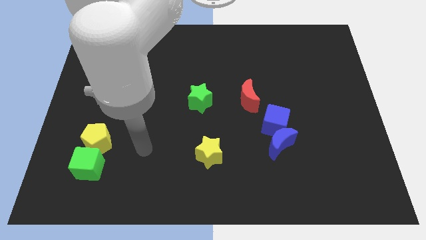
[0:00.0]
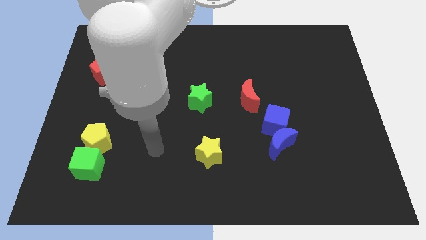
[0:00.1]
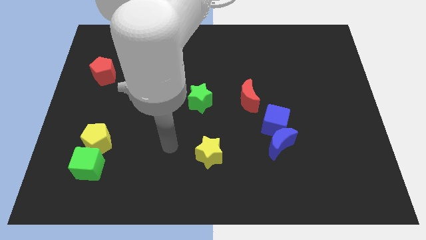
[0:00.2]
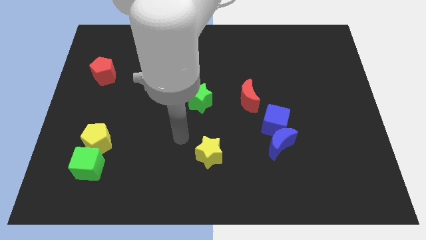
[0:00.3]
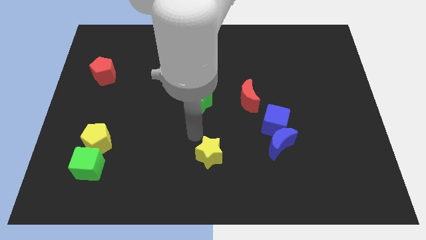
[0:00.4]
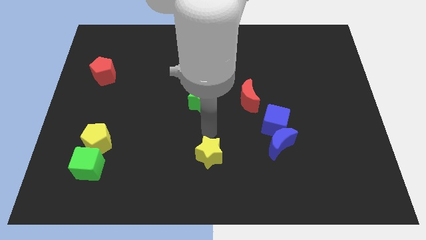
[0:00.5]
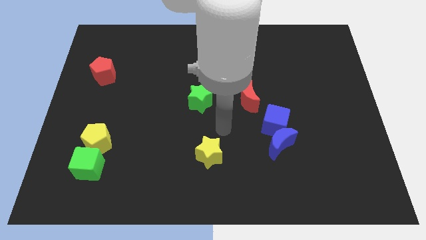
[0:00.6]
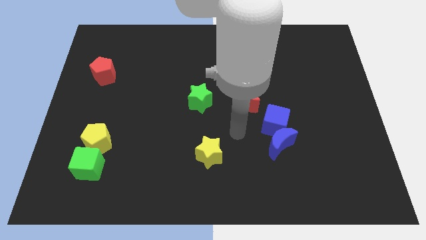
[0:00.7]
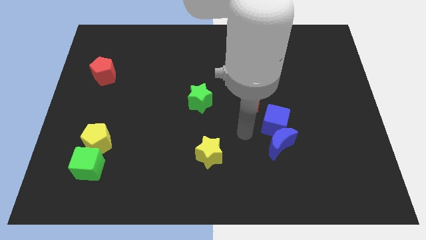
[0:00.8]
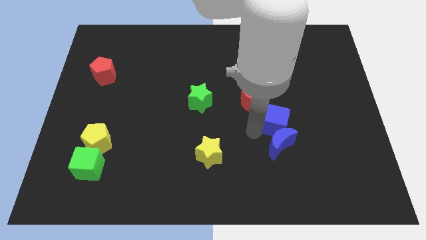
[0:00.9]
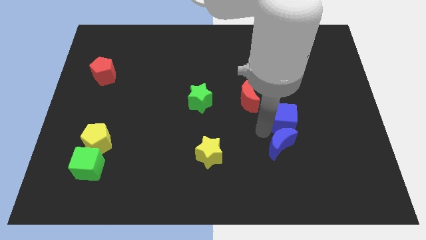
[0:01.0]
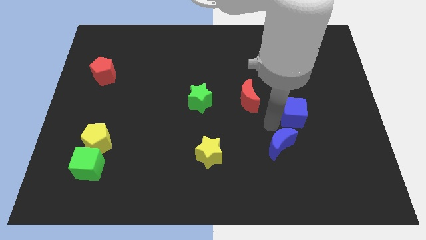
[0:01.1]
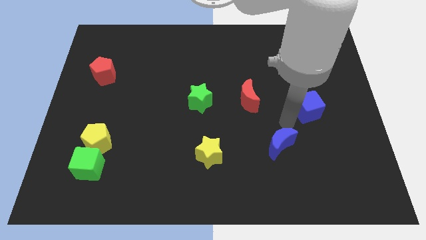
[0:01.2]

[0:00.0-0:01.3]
separate the blue moon from the blue cube

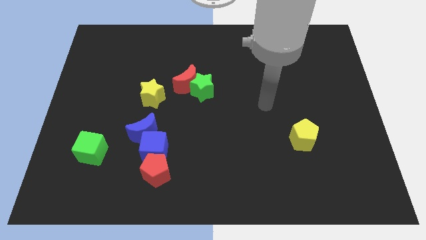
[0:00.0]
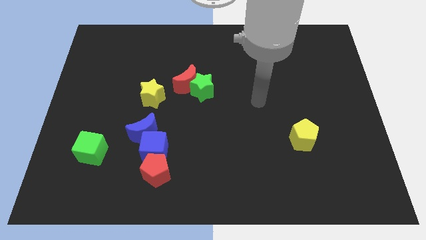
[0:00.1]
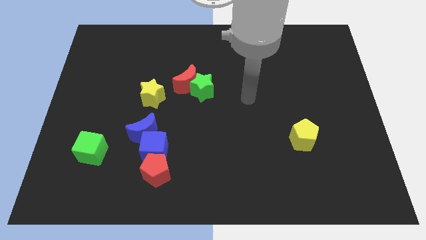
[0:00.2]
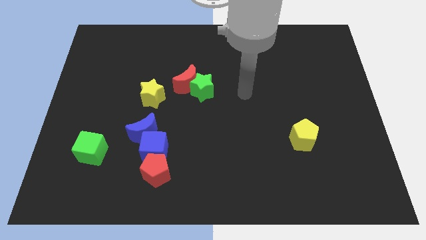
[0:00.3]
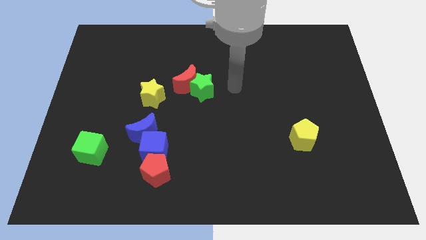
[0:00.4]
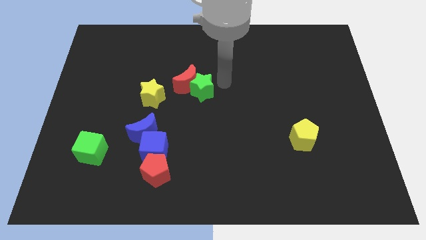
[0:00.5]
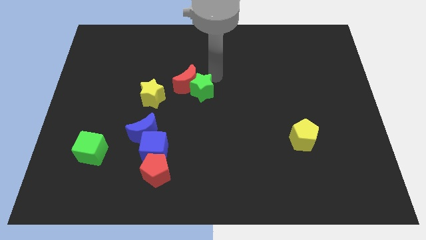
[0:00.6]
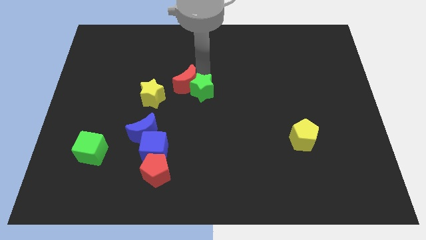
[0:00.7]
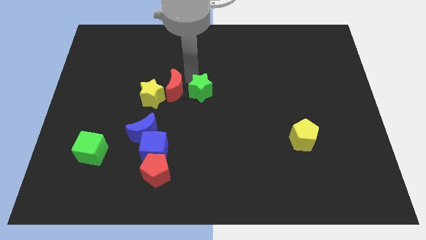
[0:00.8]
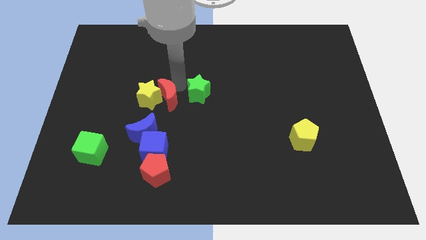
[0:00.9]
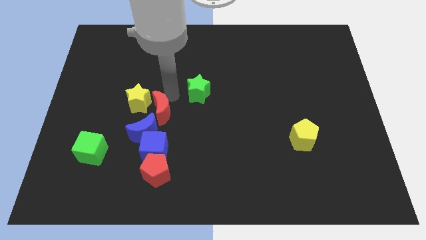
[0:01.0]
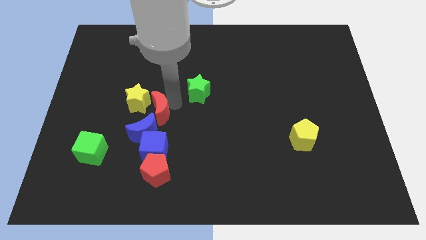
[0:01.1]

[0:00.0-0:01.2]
move the green star away from the red moon

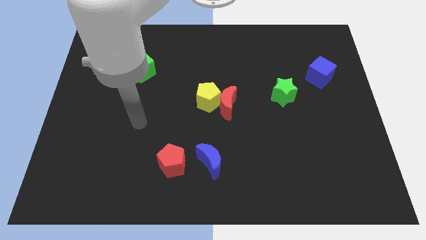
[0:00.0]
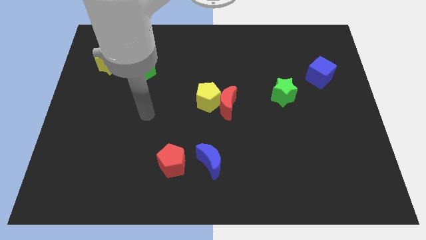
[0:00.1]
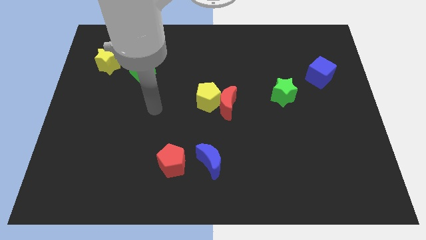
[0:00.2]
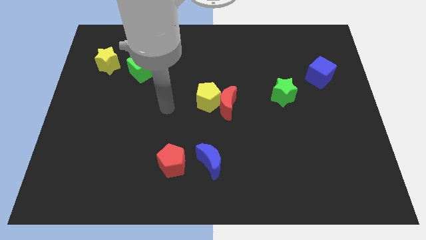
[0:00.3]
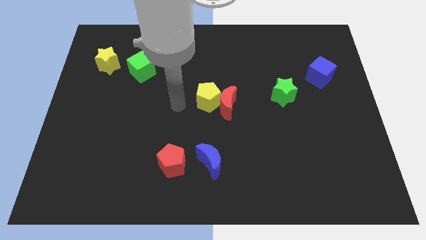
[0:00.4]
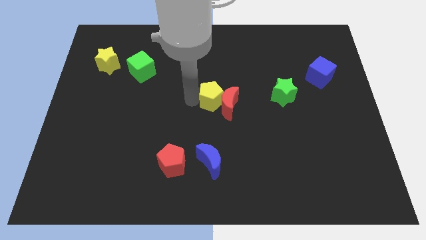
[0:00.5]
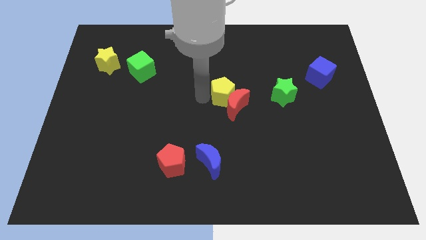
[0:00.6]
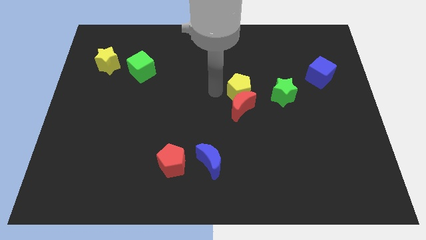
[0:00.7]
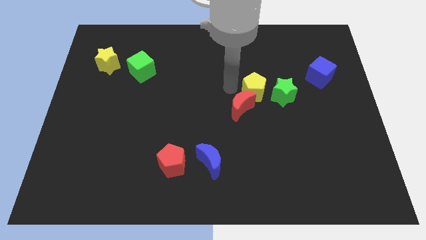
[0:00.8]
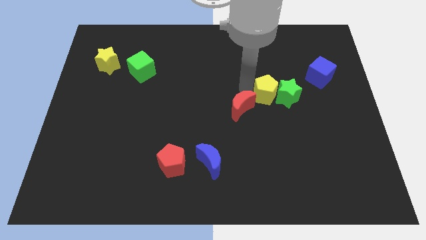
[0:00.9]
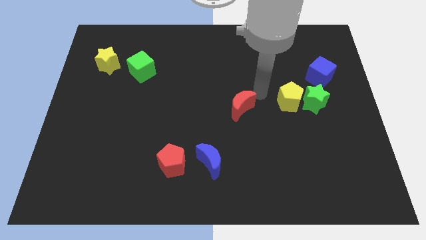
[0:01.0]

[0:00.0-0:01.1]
move the red moon away from the yellow pentagon

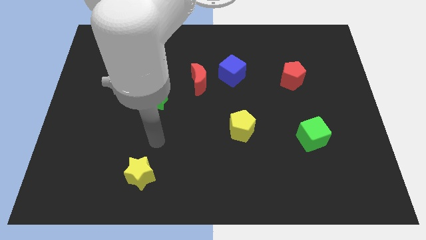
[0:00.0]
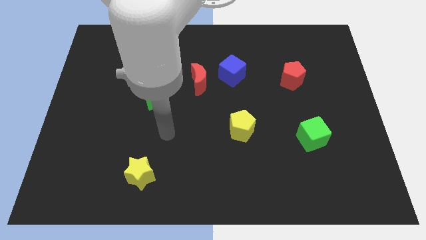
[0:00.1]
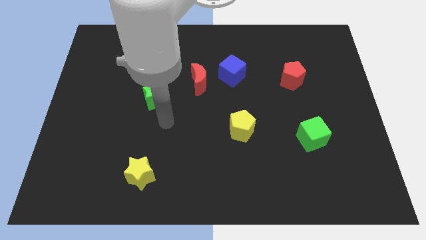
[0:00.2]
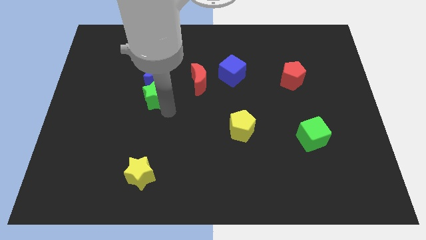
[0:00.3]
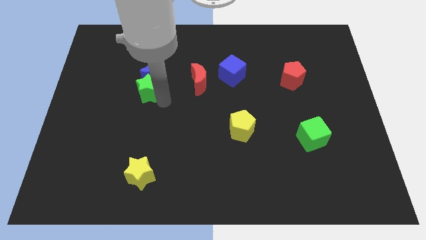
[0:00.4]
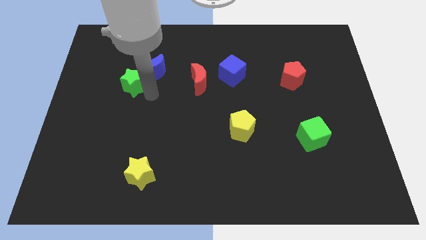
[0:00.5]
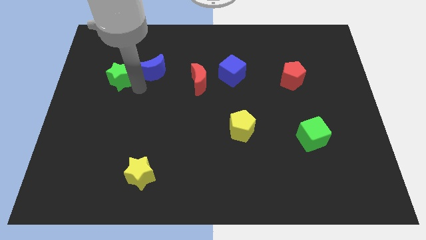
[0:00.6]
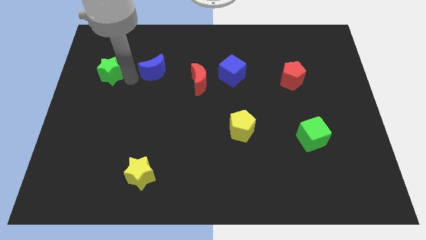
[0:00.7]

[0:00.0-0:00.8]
move the blue moon away from the green star

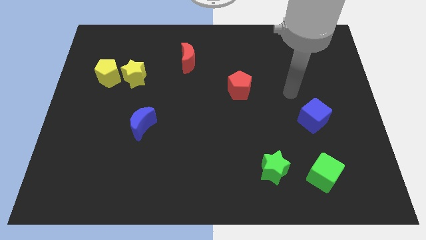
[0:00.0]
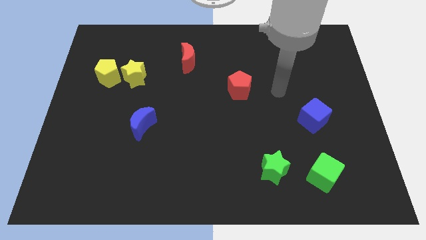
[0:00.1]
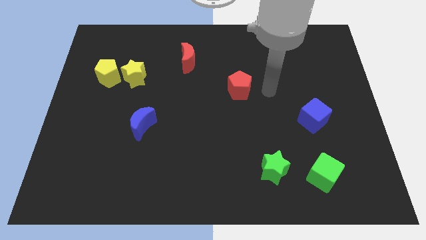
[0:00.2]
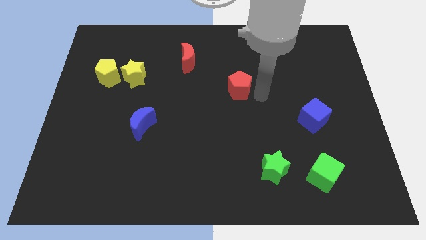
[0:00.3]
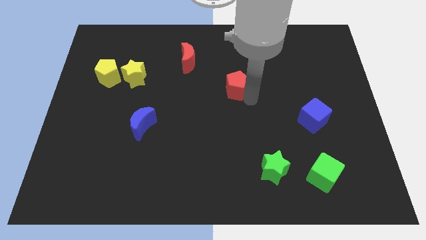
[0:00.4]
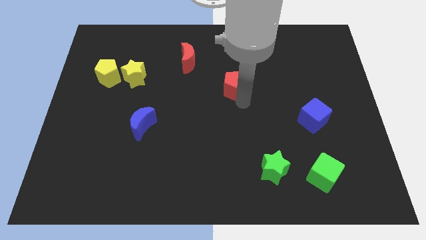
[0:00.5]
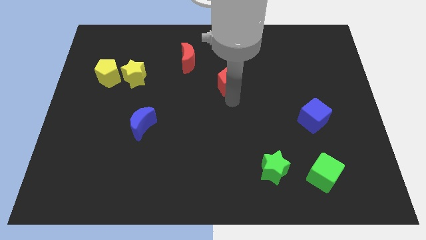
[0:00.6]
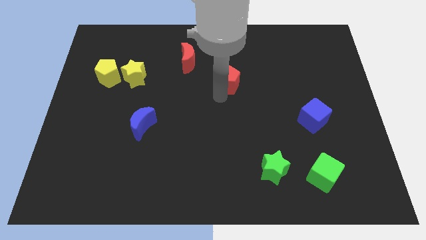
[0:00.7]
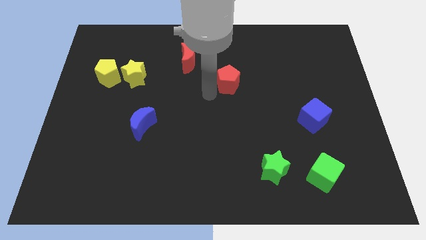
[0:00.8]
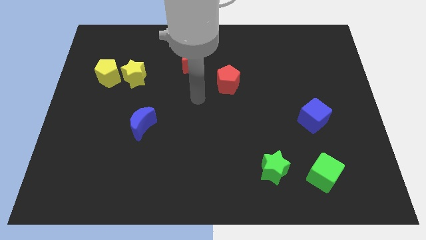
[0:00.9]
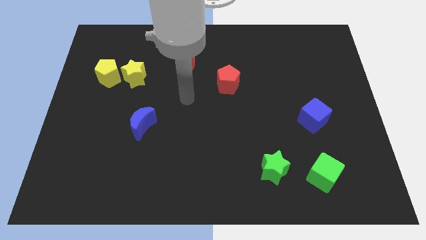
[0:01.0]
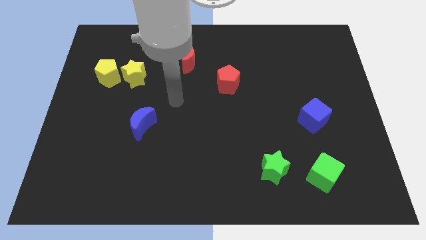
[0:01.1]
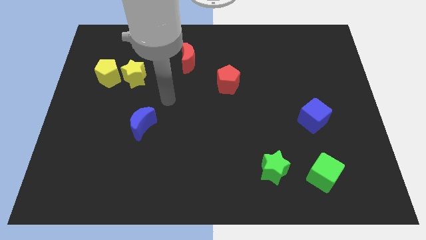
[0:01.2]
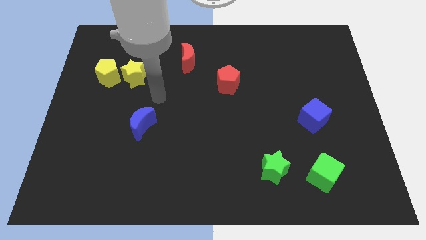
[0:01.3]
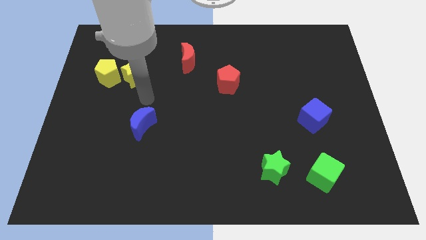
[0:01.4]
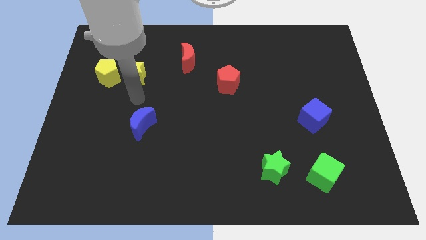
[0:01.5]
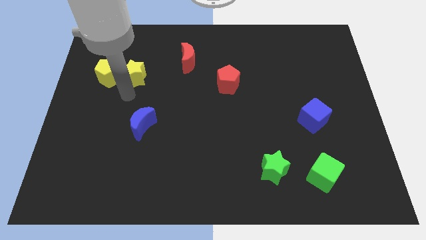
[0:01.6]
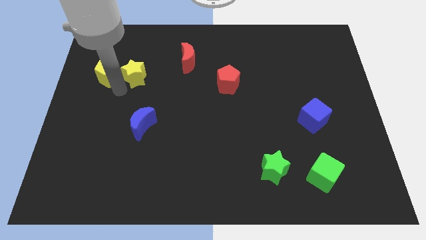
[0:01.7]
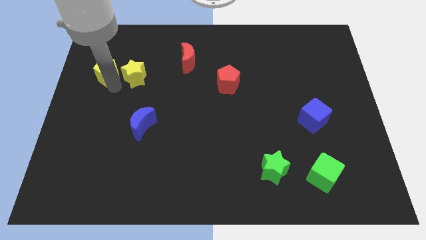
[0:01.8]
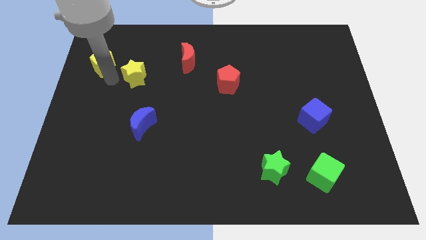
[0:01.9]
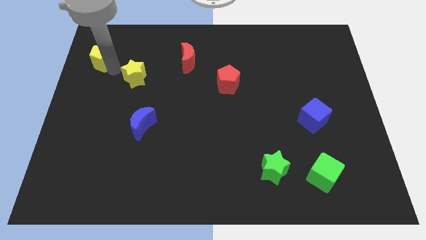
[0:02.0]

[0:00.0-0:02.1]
pull the yellow star apart from the yellow pentagon

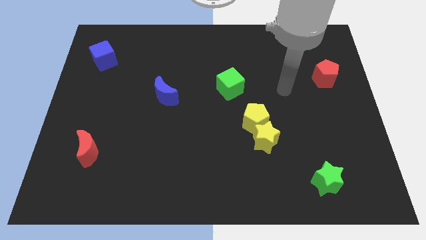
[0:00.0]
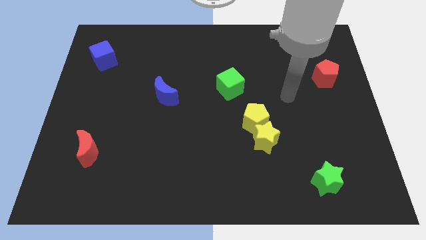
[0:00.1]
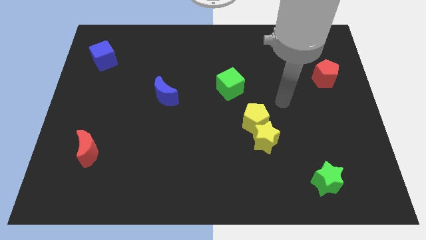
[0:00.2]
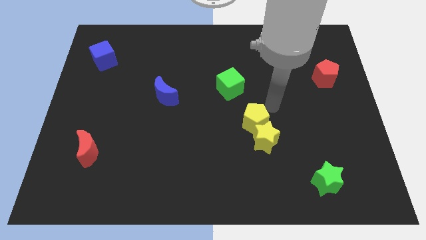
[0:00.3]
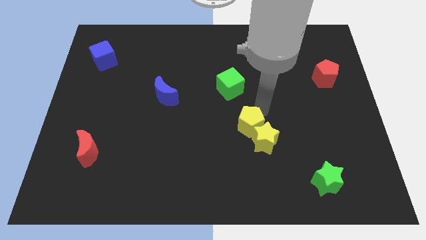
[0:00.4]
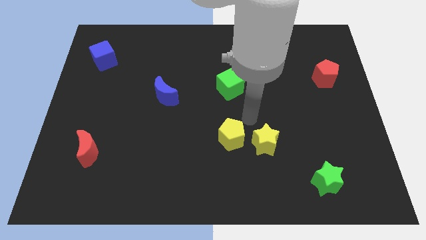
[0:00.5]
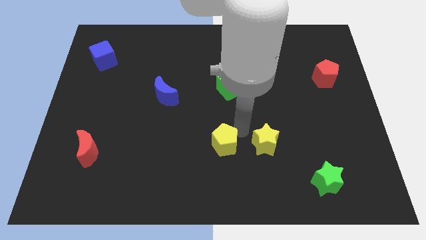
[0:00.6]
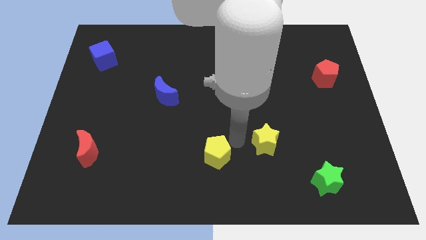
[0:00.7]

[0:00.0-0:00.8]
separate the yellow star from the yellow pentagon

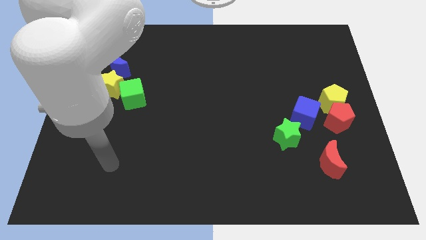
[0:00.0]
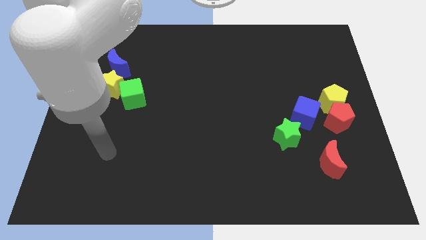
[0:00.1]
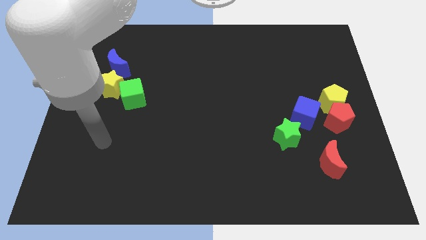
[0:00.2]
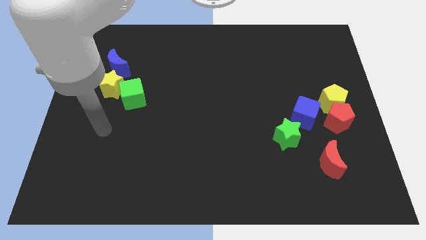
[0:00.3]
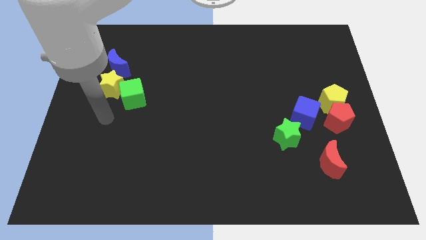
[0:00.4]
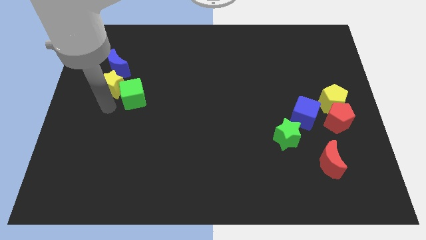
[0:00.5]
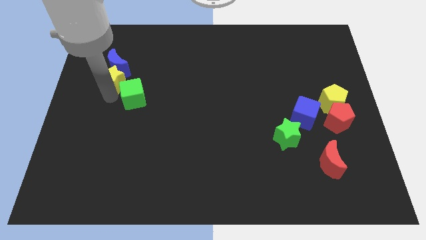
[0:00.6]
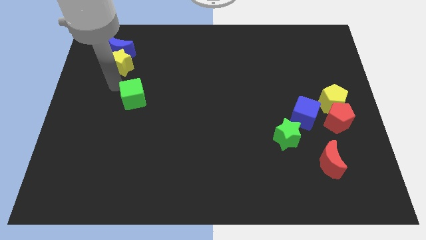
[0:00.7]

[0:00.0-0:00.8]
separate the green cube from the yellow star

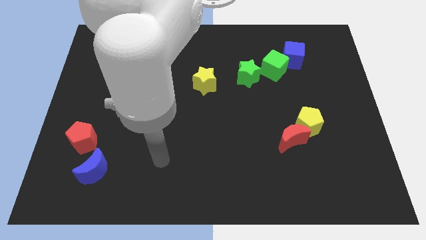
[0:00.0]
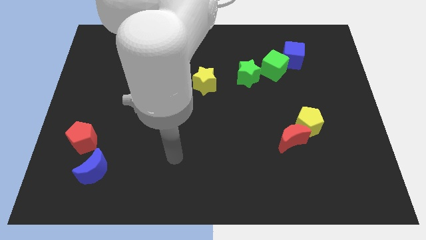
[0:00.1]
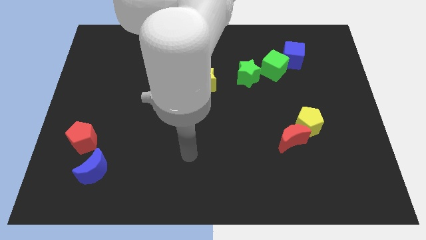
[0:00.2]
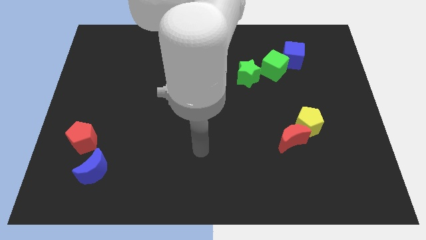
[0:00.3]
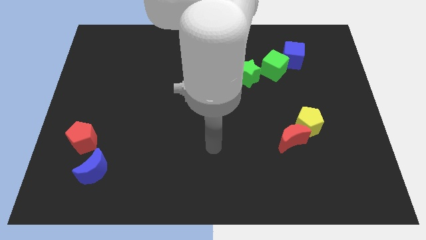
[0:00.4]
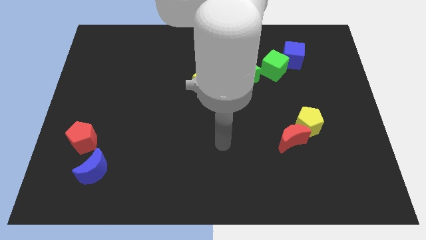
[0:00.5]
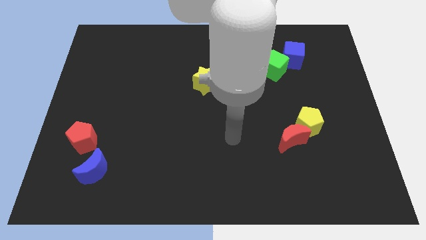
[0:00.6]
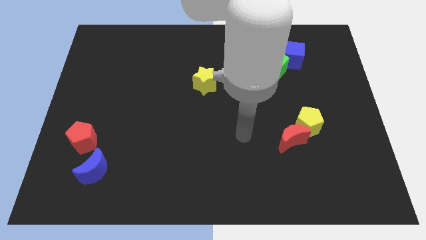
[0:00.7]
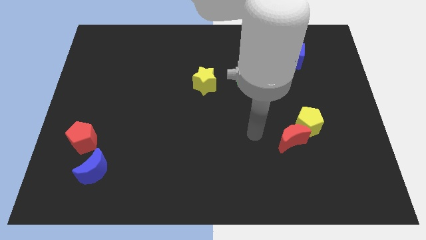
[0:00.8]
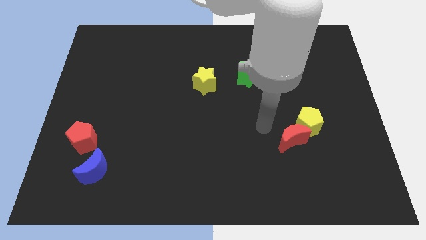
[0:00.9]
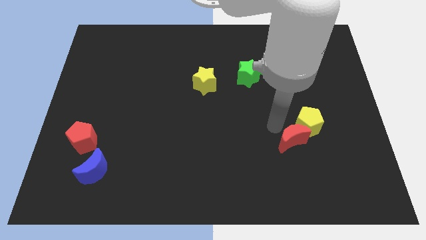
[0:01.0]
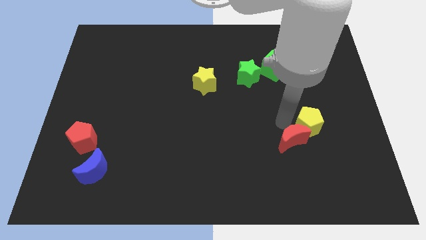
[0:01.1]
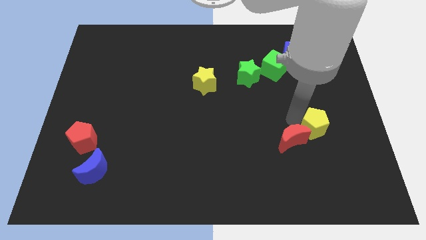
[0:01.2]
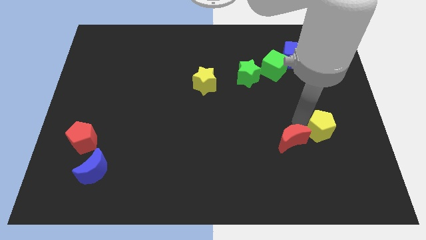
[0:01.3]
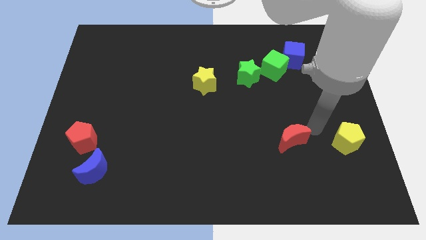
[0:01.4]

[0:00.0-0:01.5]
separate the red moon from the yellow pentagon
